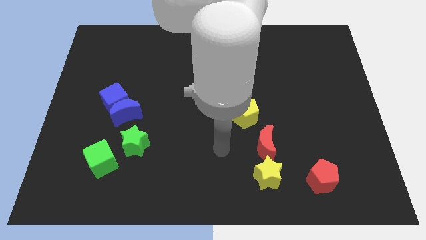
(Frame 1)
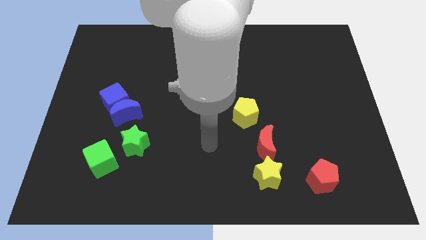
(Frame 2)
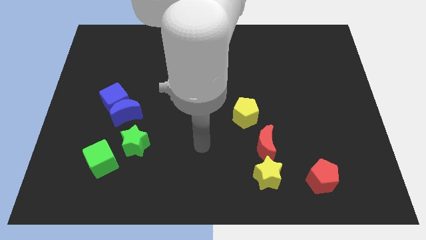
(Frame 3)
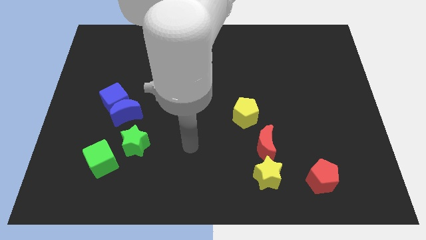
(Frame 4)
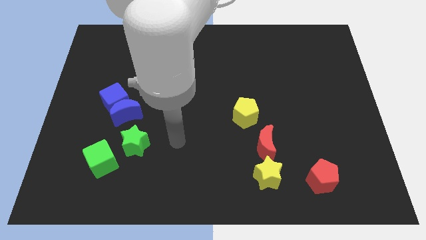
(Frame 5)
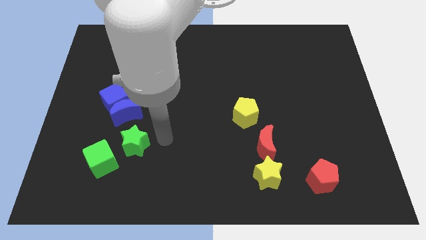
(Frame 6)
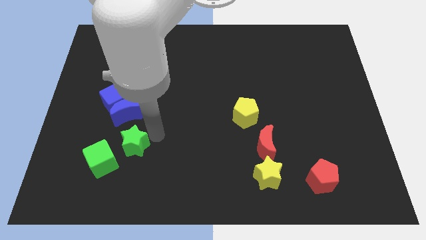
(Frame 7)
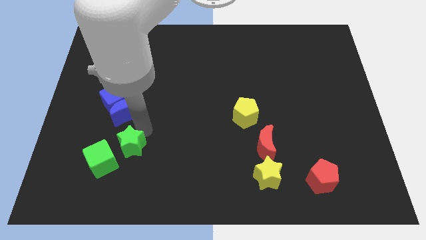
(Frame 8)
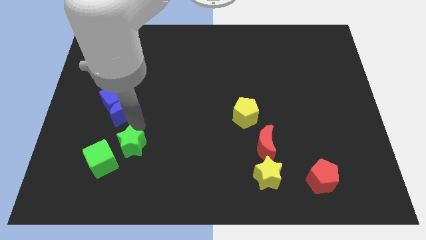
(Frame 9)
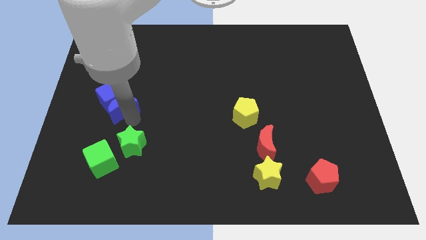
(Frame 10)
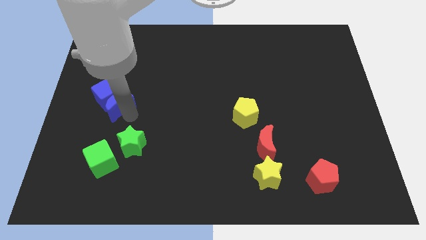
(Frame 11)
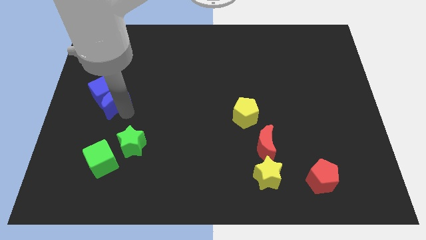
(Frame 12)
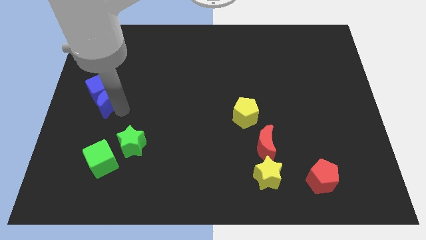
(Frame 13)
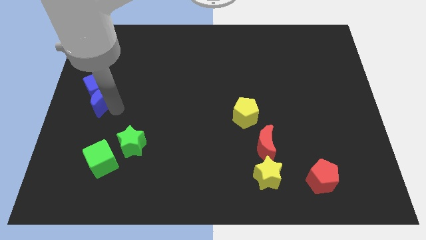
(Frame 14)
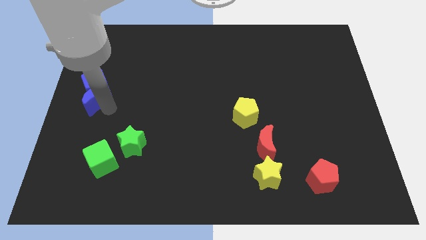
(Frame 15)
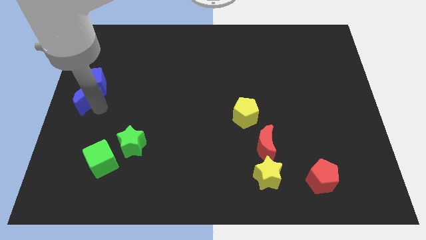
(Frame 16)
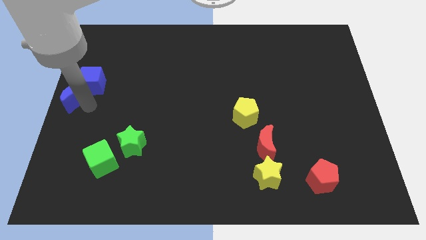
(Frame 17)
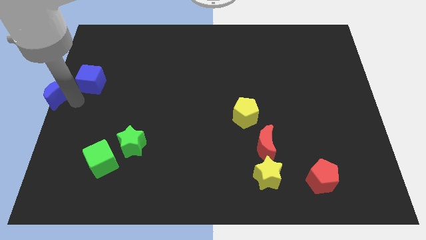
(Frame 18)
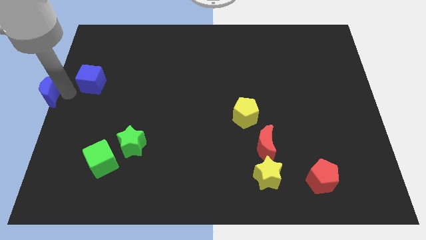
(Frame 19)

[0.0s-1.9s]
move the blue cube away from the blue moon

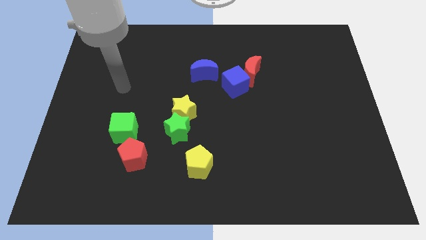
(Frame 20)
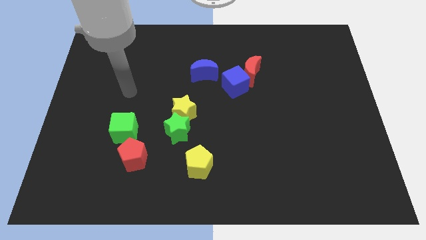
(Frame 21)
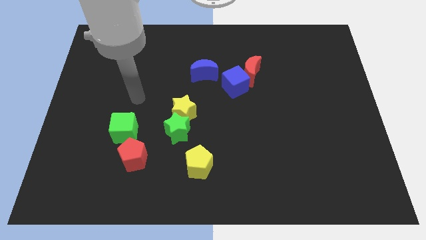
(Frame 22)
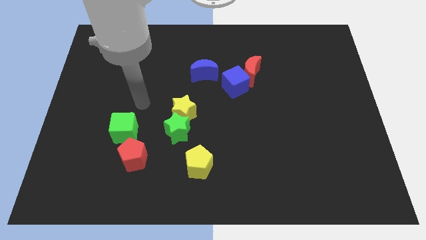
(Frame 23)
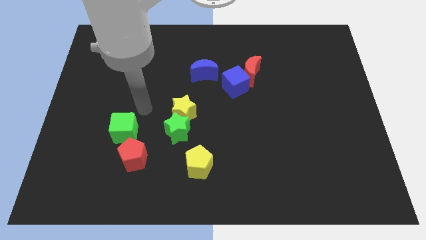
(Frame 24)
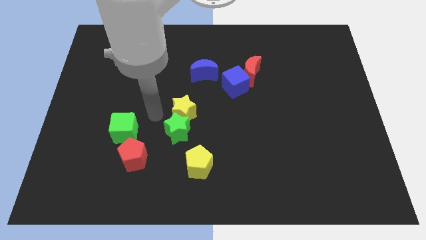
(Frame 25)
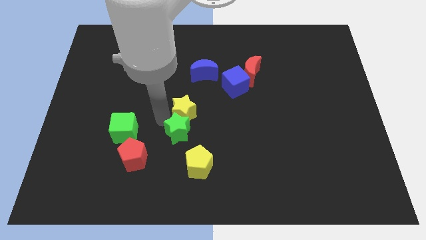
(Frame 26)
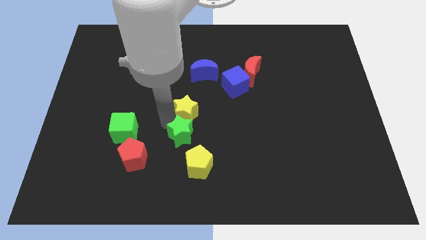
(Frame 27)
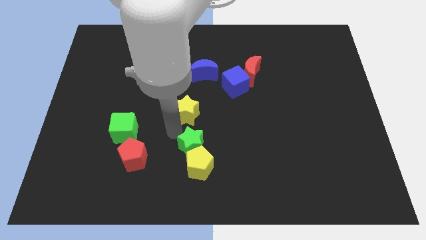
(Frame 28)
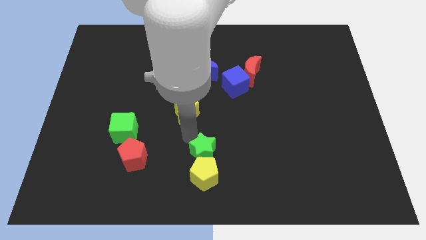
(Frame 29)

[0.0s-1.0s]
move the yellow star away from the green star

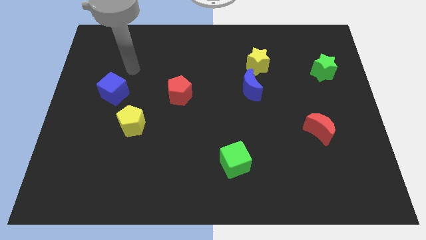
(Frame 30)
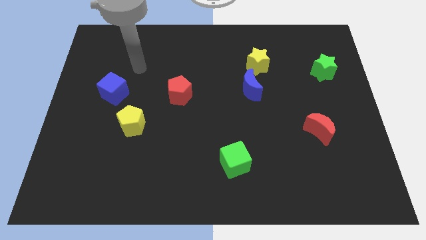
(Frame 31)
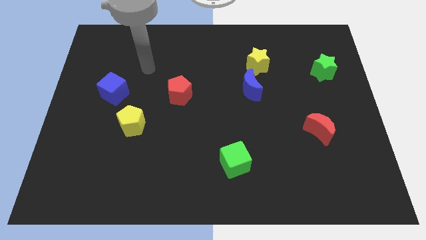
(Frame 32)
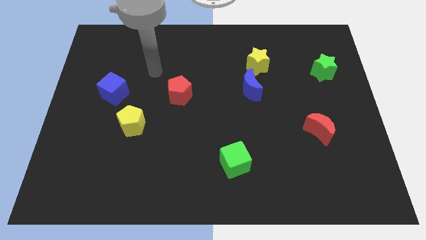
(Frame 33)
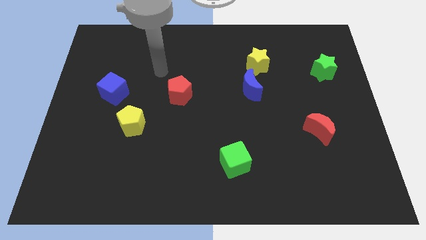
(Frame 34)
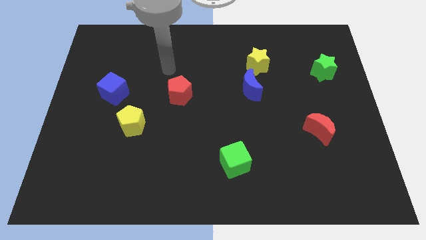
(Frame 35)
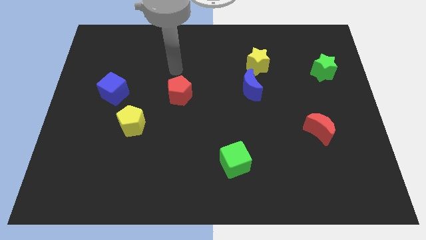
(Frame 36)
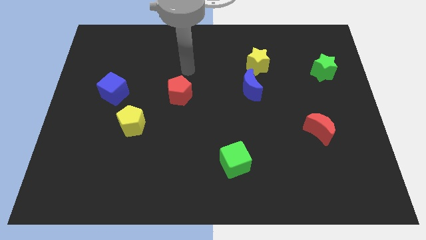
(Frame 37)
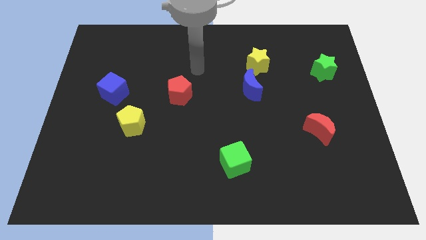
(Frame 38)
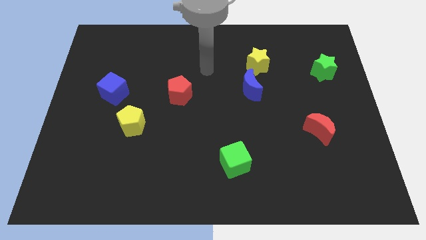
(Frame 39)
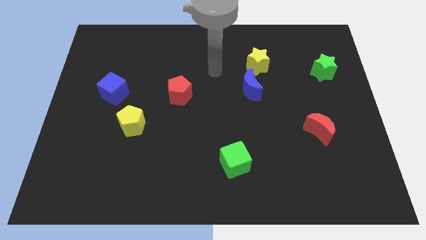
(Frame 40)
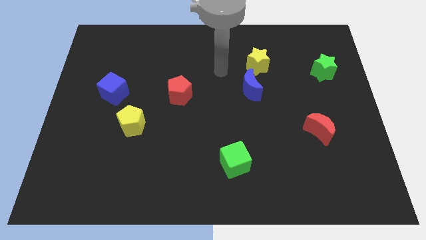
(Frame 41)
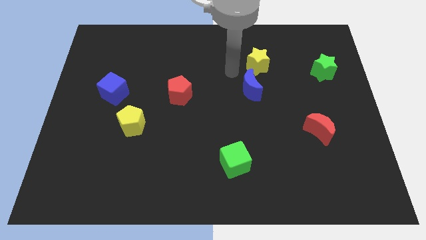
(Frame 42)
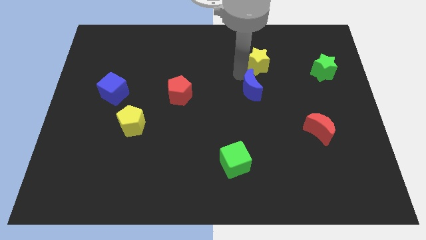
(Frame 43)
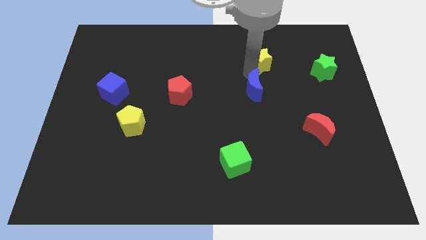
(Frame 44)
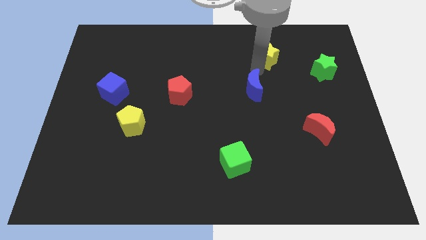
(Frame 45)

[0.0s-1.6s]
move the blue moon away from the yellow star

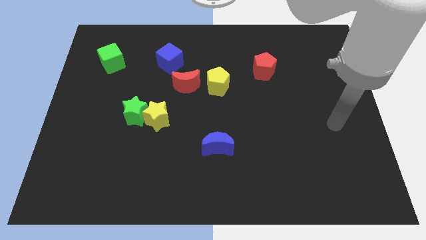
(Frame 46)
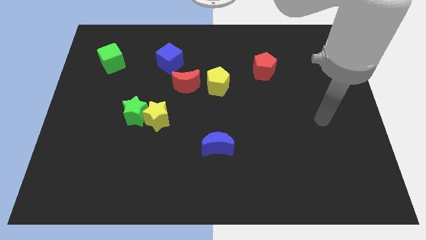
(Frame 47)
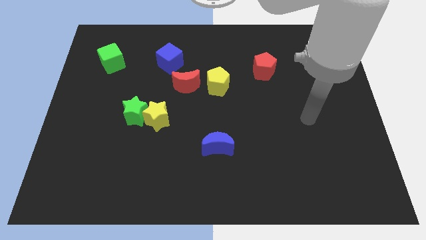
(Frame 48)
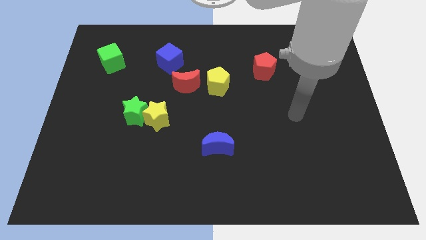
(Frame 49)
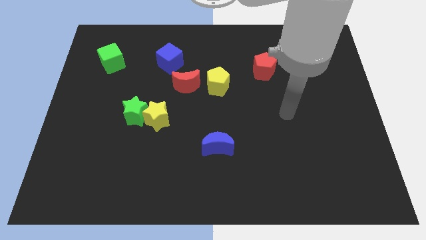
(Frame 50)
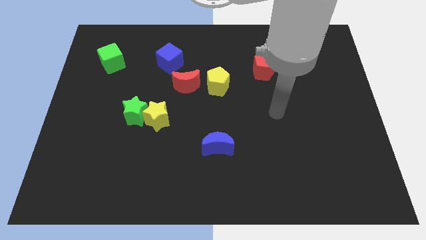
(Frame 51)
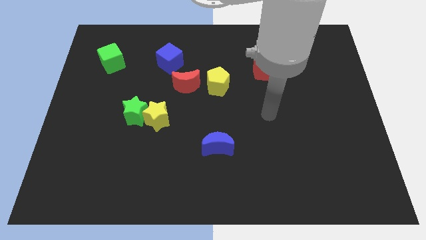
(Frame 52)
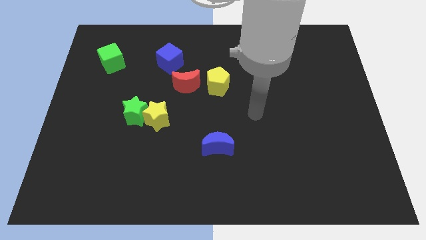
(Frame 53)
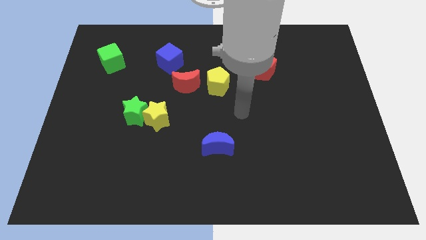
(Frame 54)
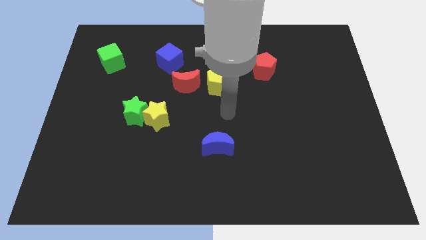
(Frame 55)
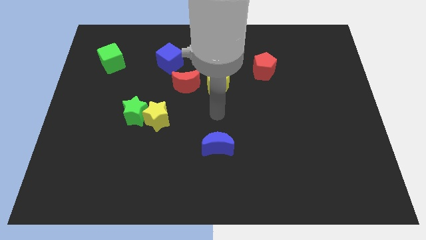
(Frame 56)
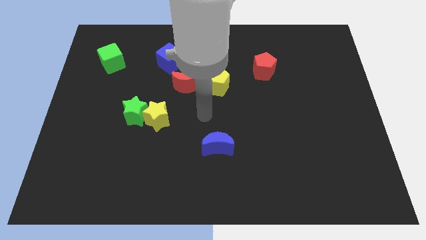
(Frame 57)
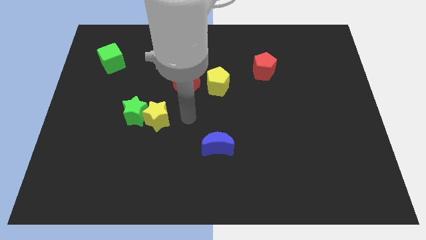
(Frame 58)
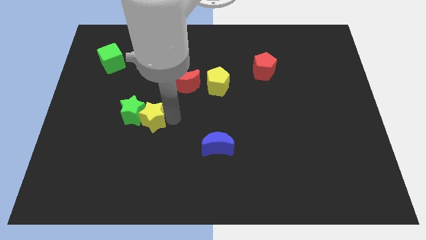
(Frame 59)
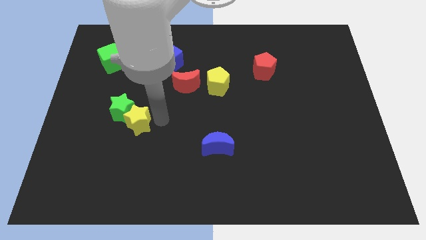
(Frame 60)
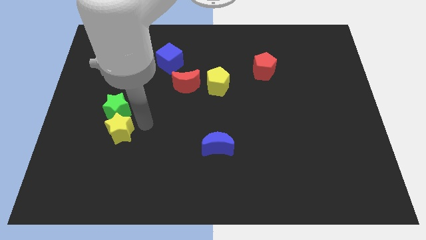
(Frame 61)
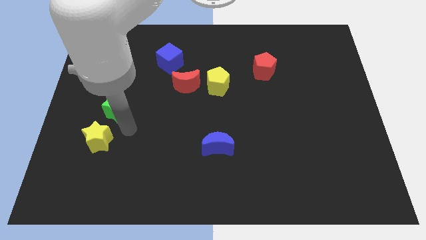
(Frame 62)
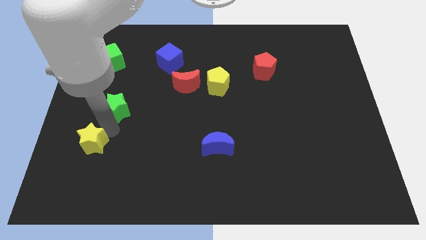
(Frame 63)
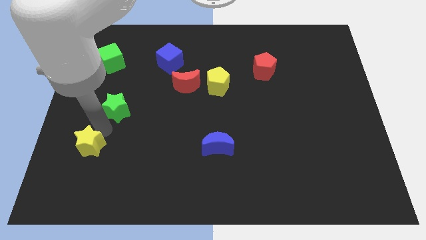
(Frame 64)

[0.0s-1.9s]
pull the green star apart from the yellow star

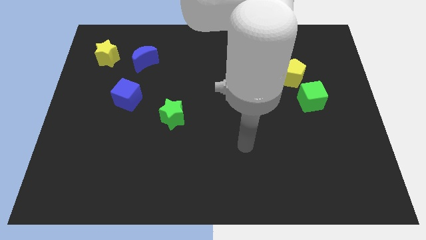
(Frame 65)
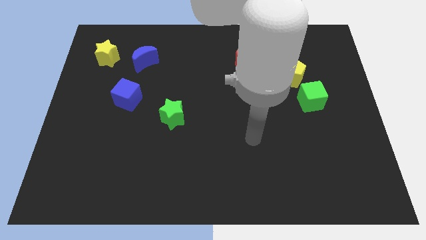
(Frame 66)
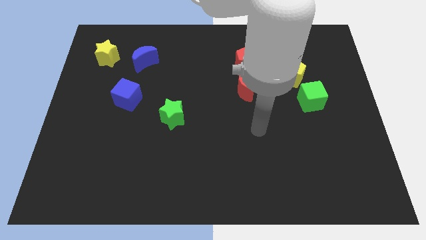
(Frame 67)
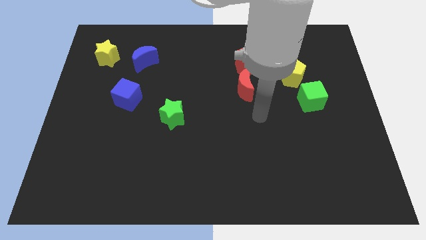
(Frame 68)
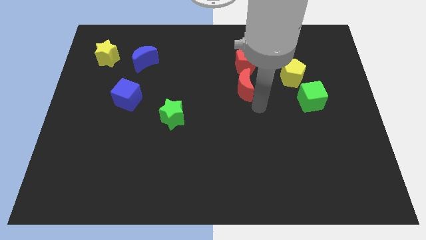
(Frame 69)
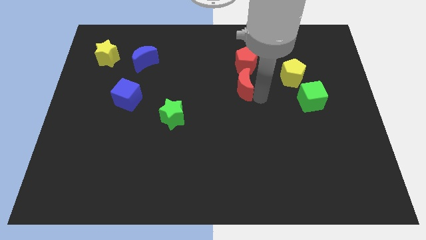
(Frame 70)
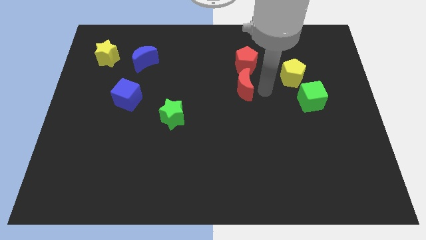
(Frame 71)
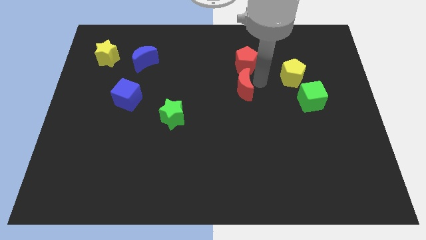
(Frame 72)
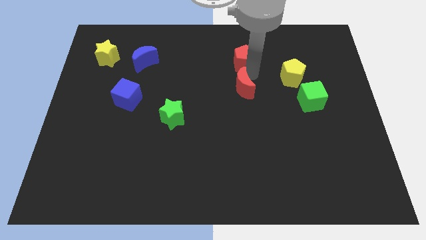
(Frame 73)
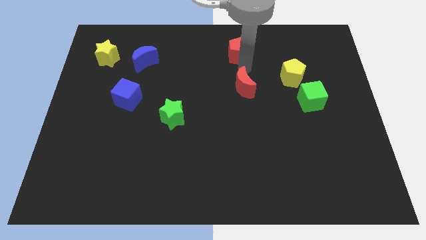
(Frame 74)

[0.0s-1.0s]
separate the red moon from the red pentagon

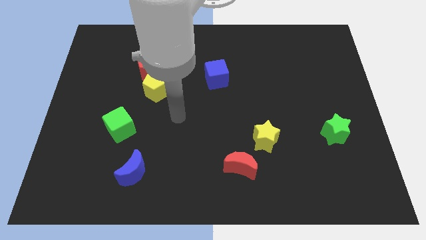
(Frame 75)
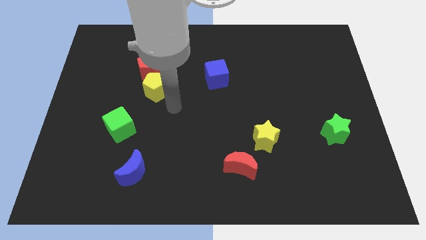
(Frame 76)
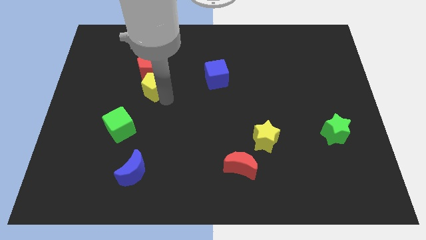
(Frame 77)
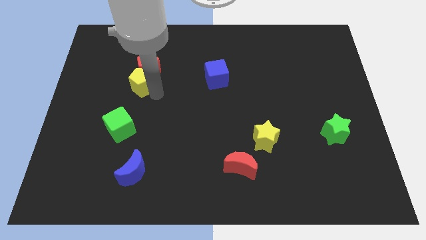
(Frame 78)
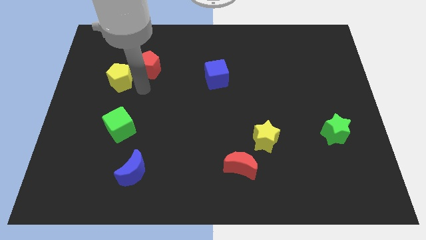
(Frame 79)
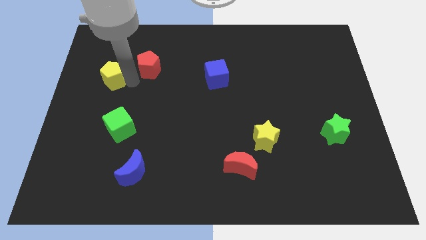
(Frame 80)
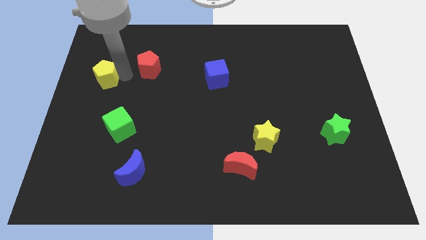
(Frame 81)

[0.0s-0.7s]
separate the red pentagon from the yellow pentagon

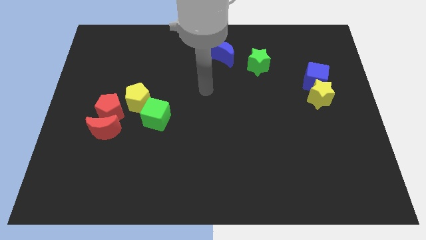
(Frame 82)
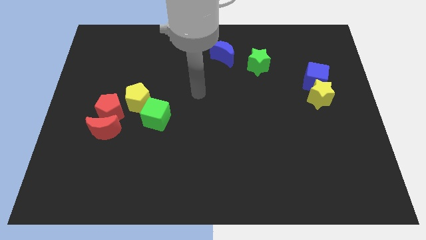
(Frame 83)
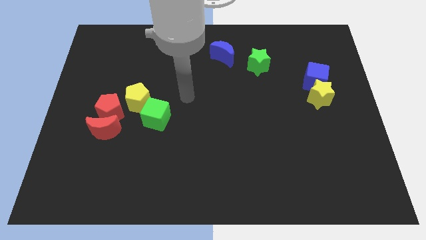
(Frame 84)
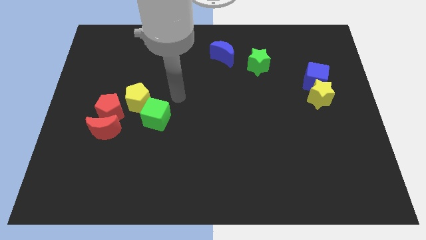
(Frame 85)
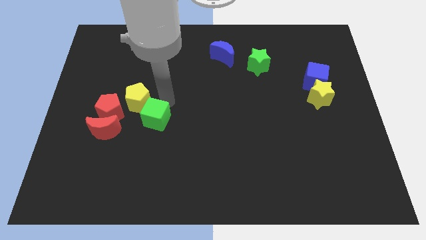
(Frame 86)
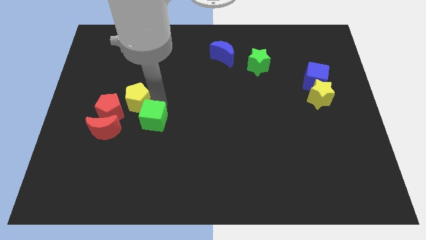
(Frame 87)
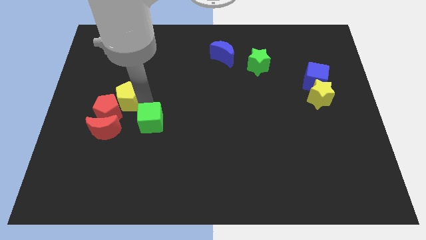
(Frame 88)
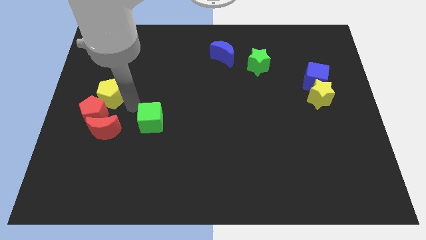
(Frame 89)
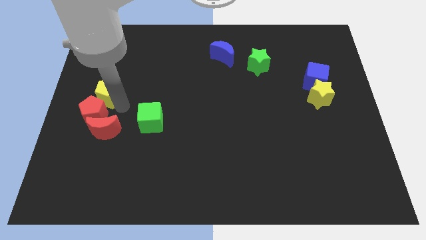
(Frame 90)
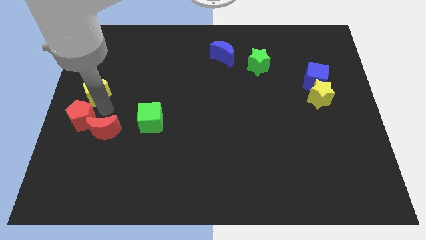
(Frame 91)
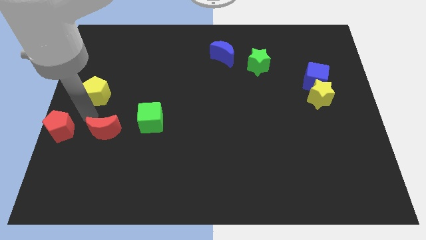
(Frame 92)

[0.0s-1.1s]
pull the red moon apart from the red pentagon

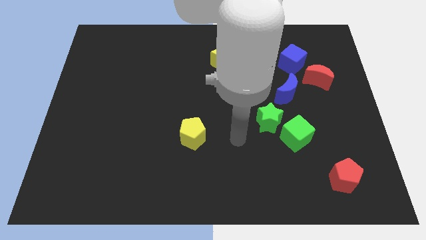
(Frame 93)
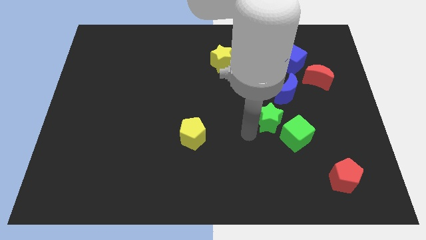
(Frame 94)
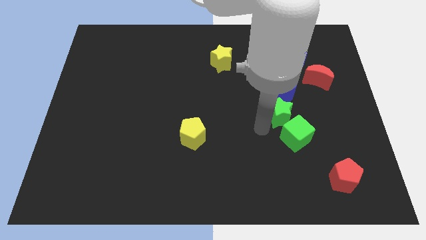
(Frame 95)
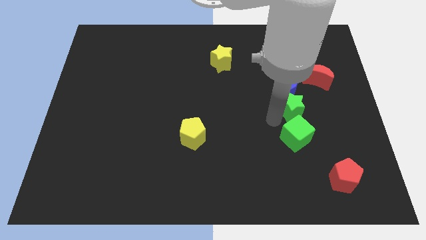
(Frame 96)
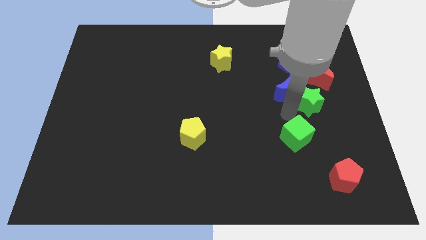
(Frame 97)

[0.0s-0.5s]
pull the green cube apart from the green star
